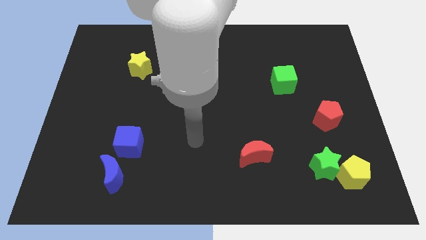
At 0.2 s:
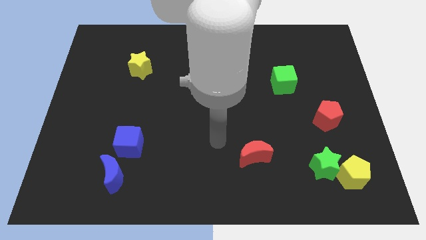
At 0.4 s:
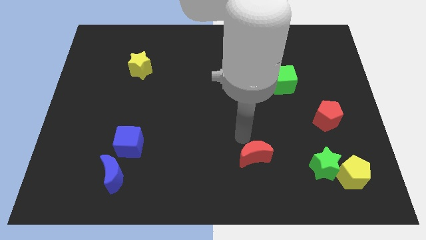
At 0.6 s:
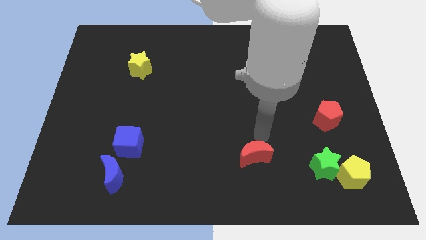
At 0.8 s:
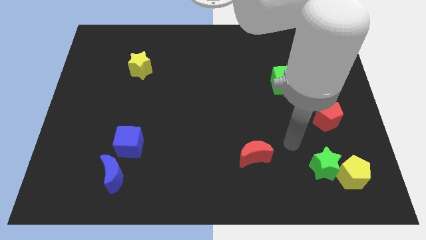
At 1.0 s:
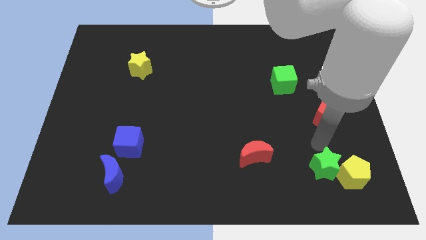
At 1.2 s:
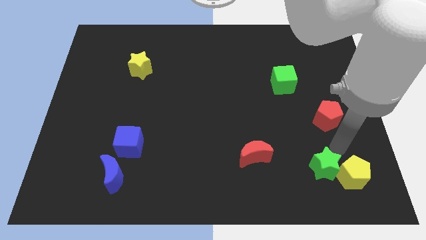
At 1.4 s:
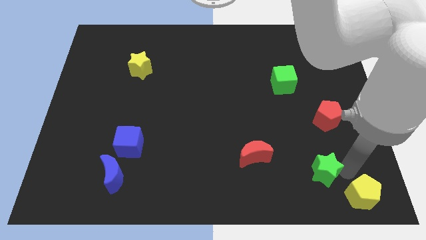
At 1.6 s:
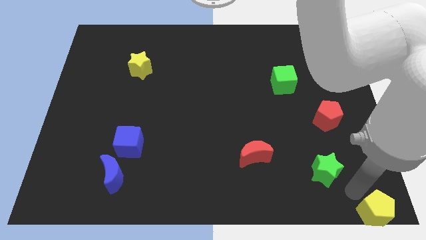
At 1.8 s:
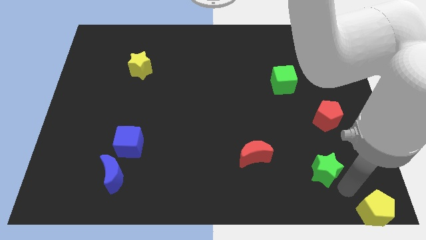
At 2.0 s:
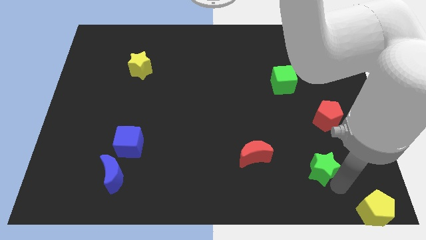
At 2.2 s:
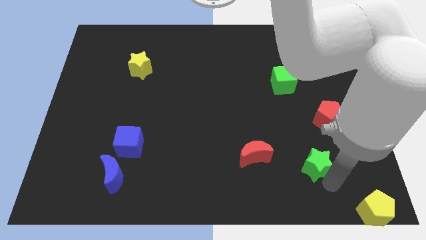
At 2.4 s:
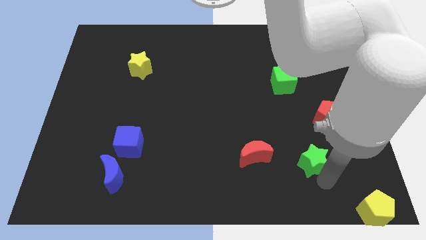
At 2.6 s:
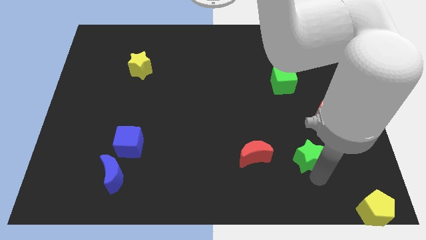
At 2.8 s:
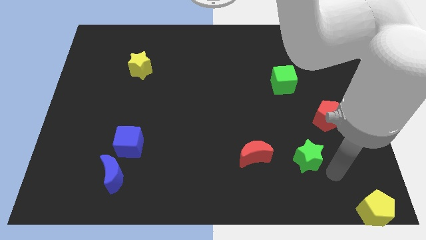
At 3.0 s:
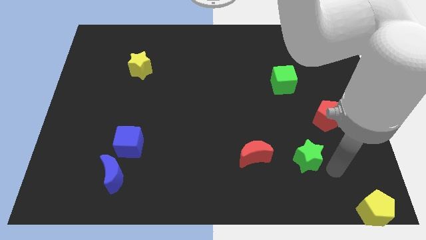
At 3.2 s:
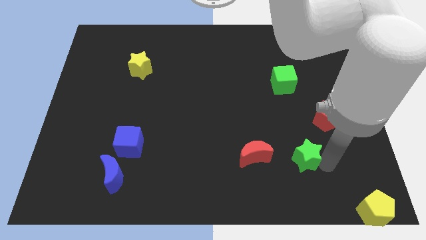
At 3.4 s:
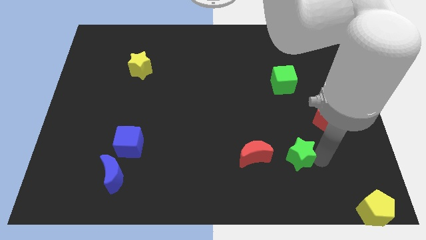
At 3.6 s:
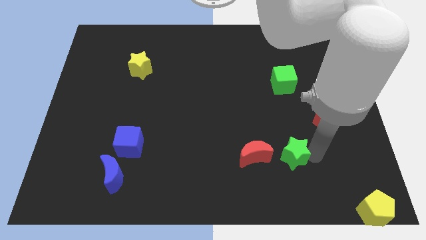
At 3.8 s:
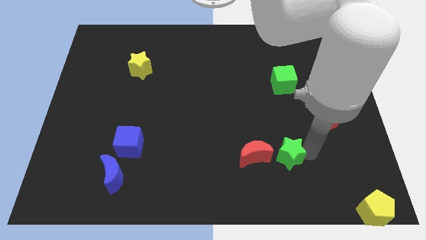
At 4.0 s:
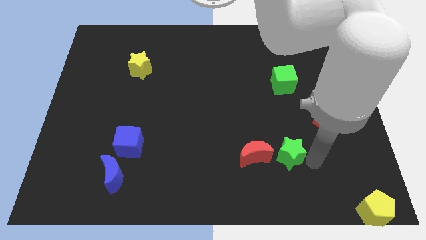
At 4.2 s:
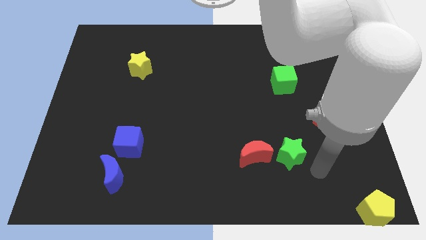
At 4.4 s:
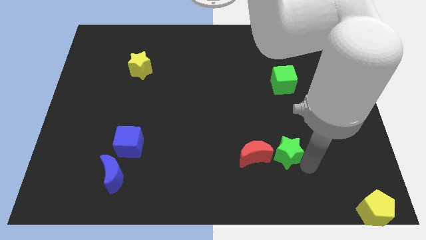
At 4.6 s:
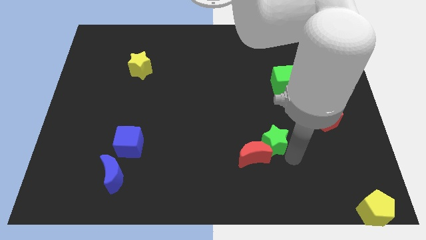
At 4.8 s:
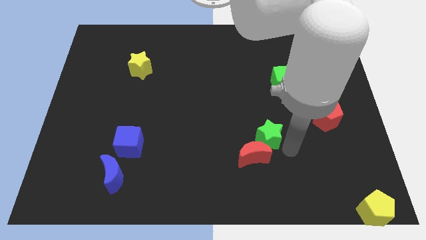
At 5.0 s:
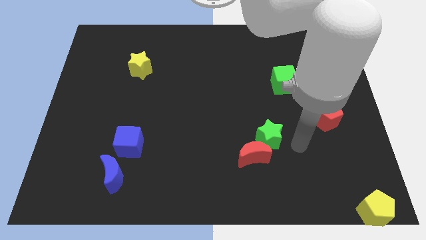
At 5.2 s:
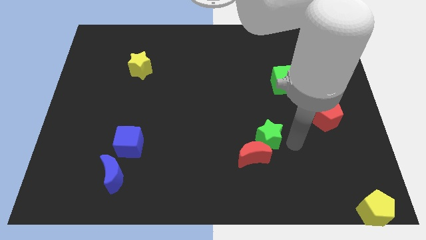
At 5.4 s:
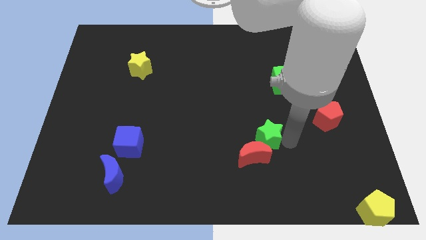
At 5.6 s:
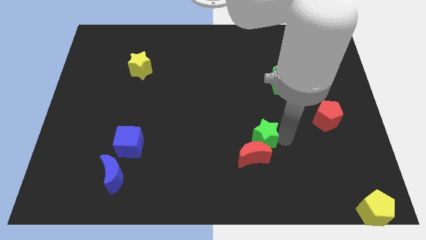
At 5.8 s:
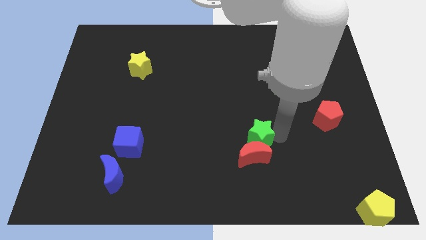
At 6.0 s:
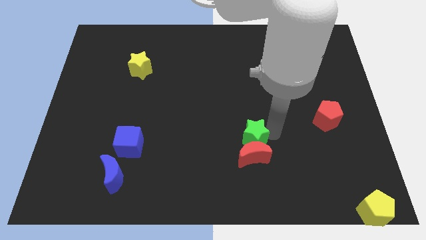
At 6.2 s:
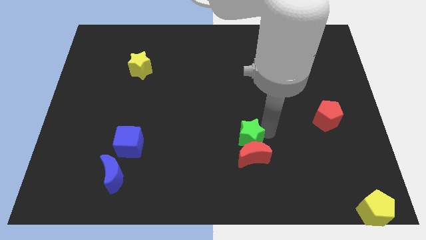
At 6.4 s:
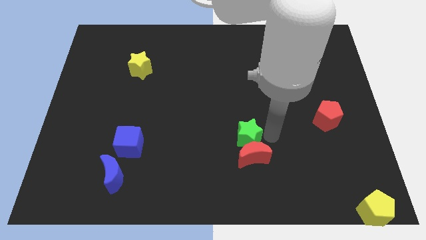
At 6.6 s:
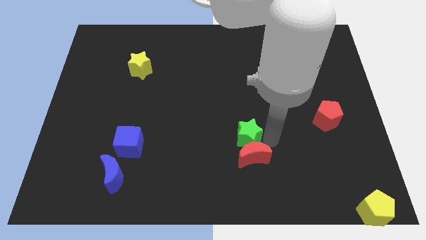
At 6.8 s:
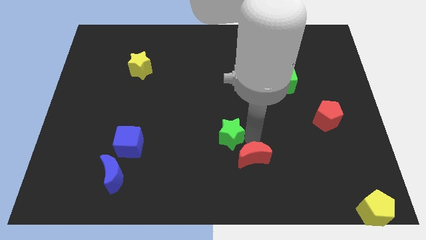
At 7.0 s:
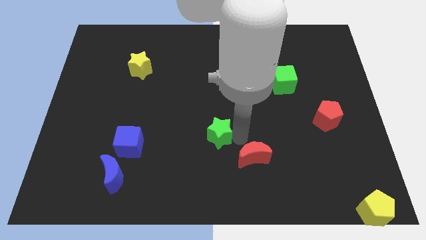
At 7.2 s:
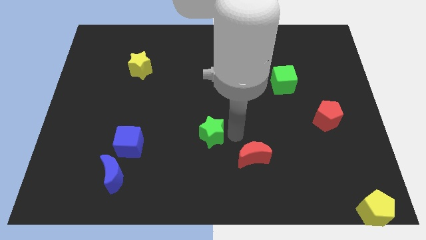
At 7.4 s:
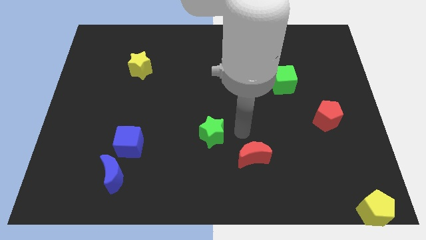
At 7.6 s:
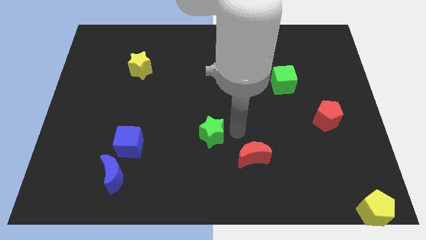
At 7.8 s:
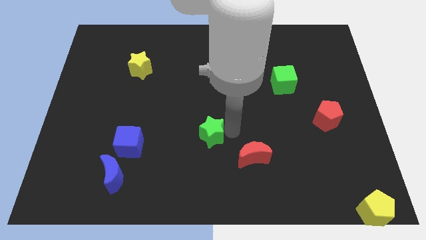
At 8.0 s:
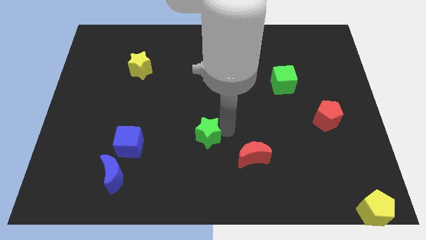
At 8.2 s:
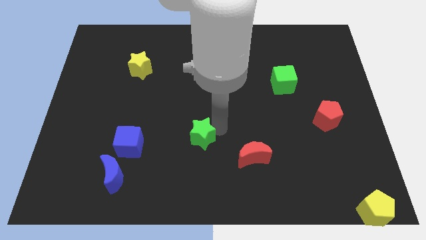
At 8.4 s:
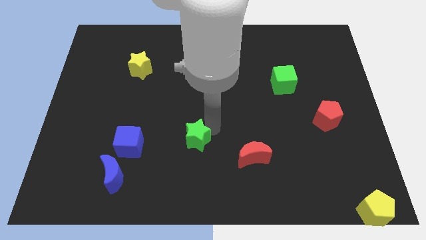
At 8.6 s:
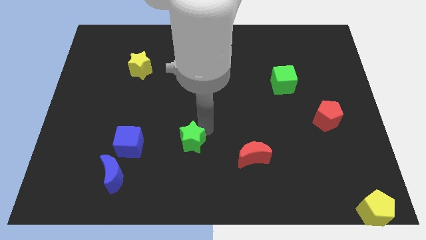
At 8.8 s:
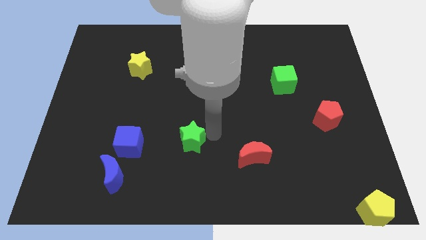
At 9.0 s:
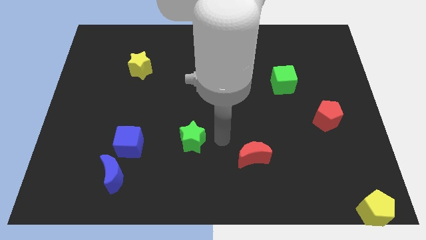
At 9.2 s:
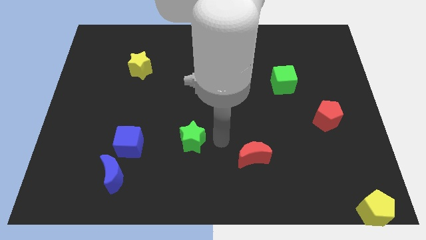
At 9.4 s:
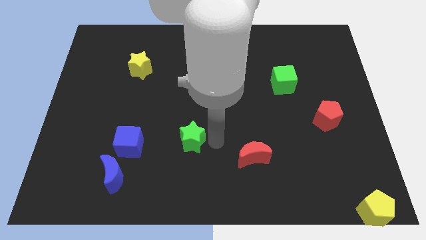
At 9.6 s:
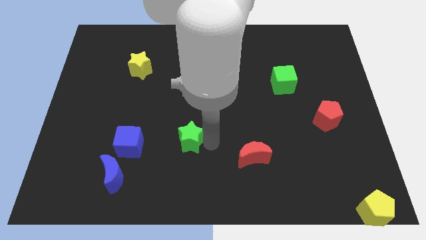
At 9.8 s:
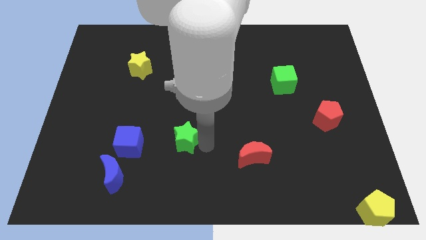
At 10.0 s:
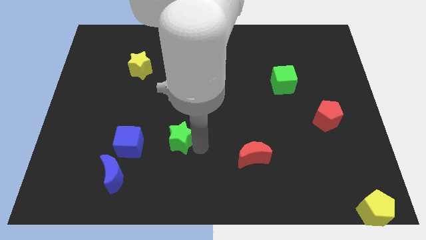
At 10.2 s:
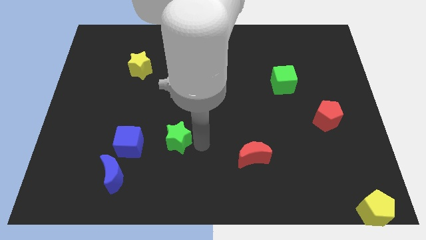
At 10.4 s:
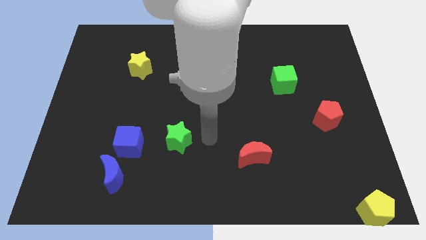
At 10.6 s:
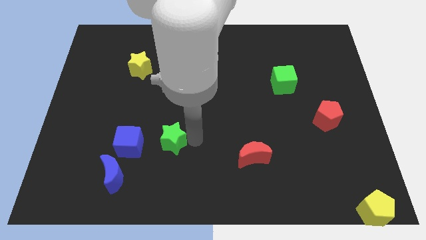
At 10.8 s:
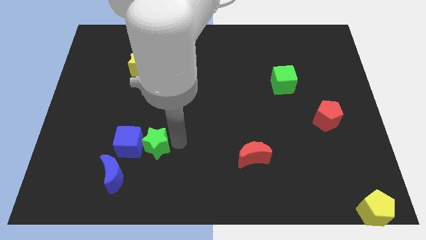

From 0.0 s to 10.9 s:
slide the green star towards the blue cube

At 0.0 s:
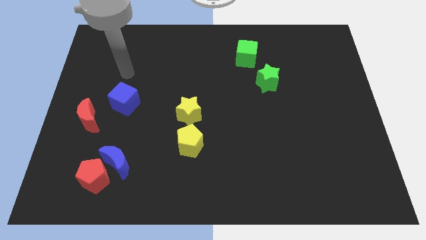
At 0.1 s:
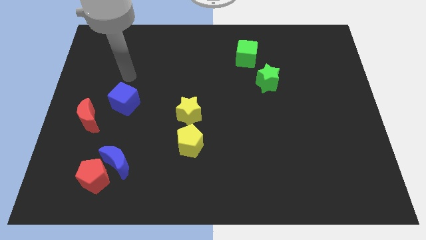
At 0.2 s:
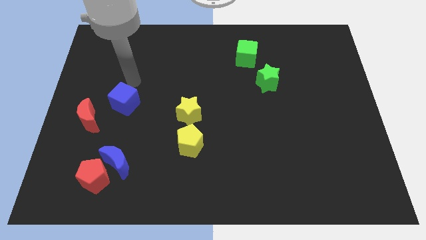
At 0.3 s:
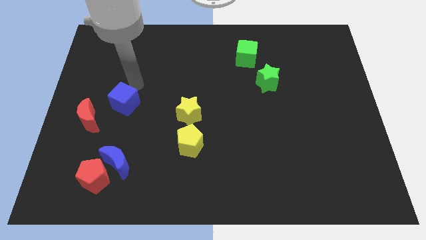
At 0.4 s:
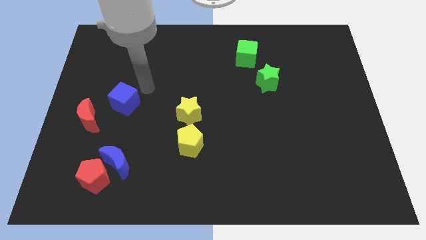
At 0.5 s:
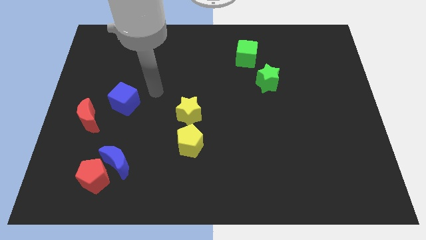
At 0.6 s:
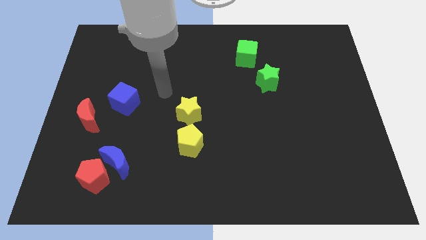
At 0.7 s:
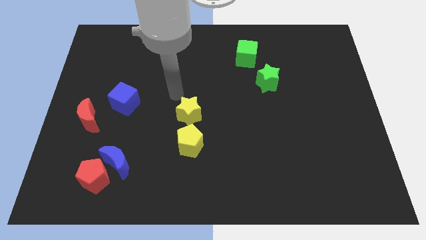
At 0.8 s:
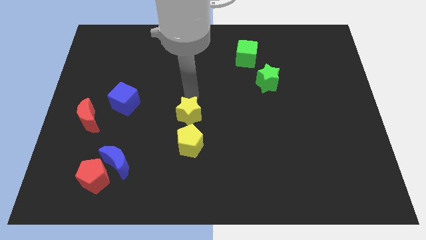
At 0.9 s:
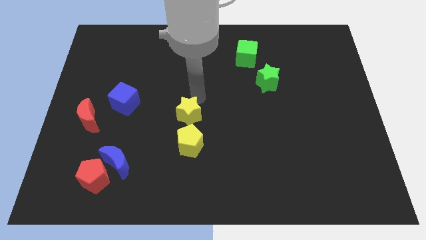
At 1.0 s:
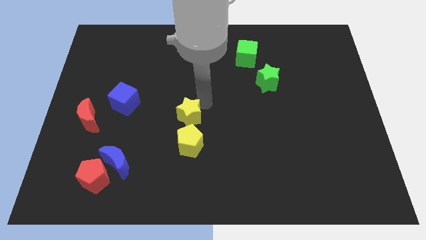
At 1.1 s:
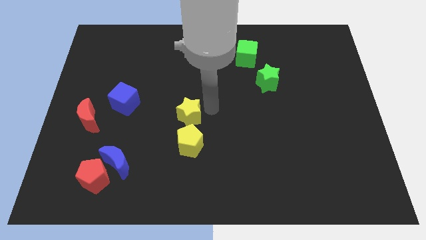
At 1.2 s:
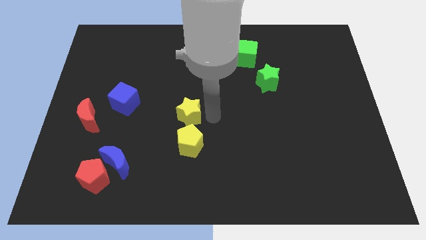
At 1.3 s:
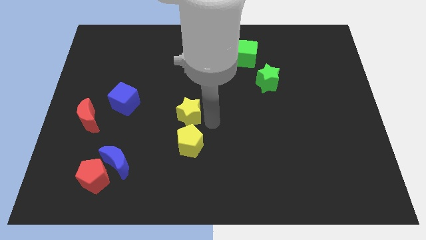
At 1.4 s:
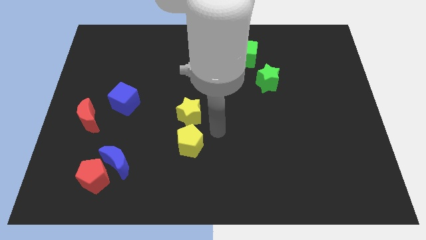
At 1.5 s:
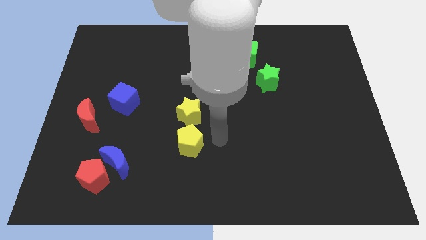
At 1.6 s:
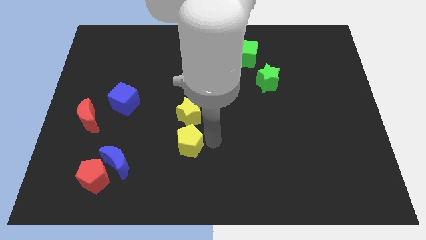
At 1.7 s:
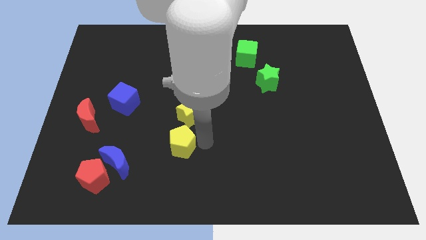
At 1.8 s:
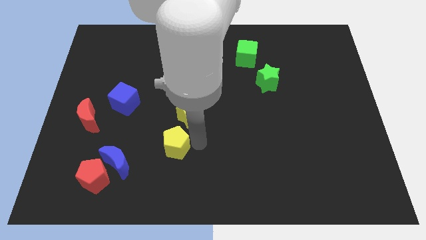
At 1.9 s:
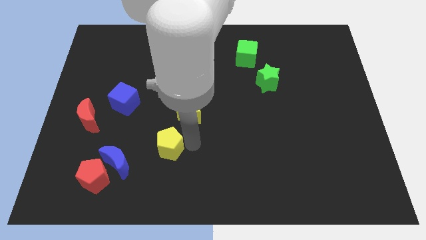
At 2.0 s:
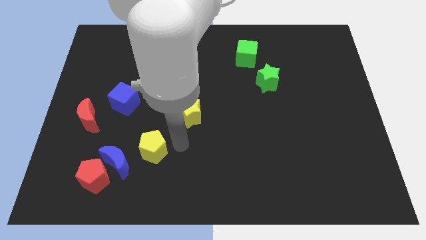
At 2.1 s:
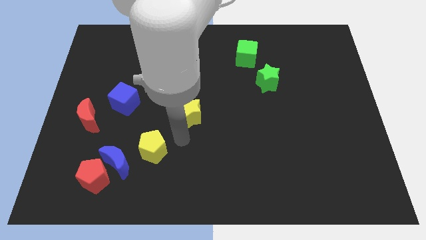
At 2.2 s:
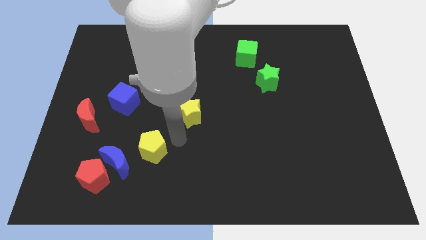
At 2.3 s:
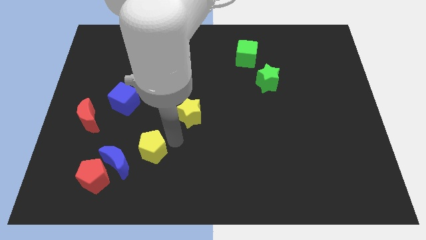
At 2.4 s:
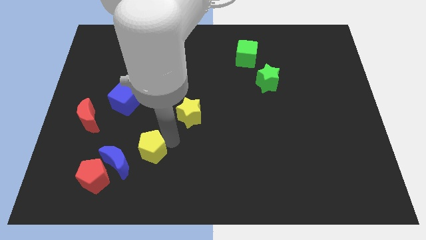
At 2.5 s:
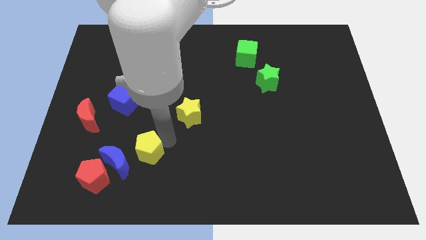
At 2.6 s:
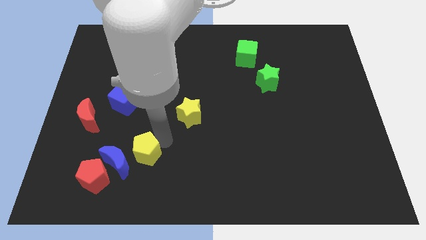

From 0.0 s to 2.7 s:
push the yellow pentagon to the blue moon
